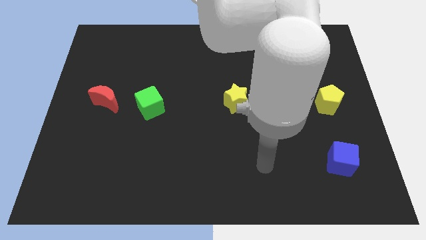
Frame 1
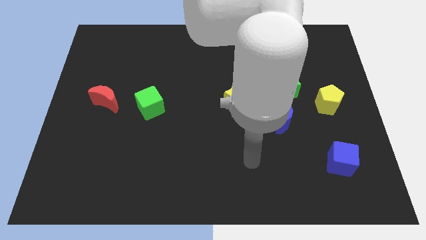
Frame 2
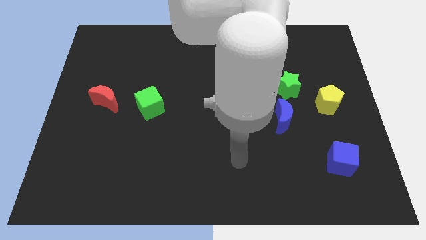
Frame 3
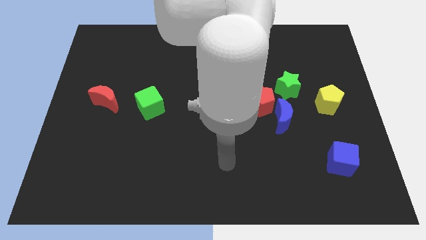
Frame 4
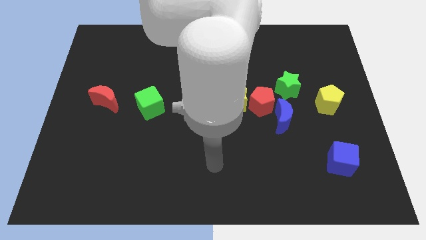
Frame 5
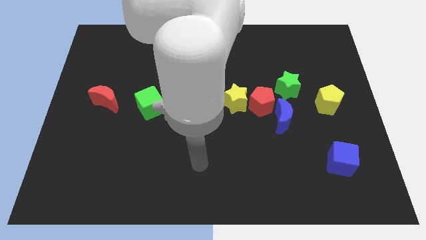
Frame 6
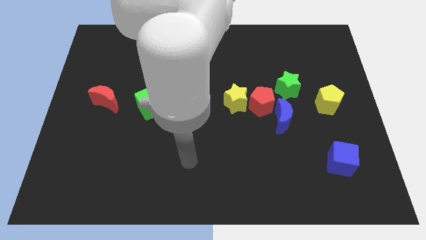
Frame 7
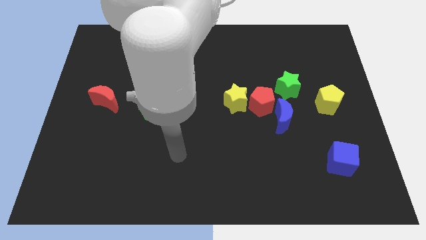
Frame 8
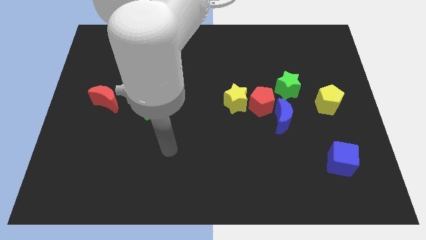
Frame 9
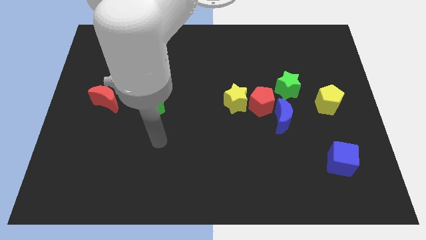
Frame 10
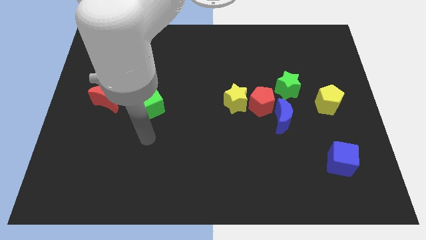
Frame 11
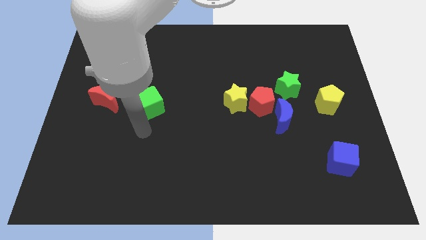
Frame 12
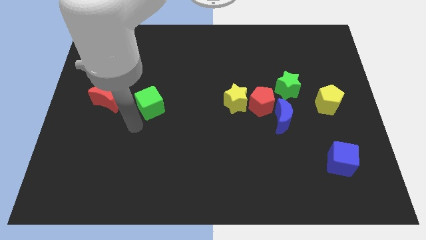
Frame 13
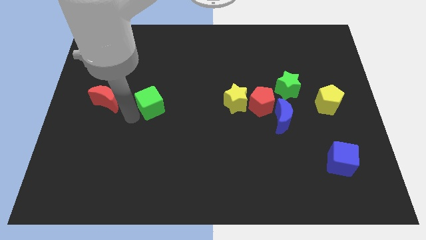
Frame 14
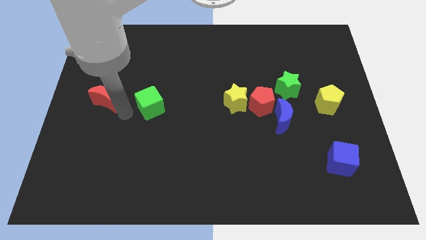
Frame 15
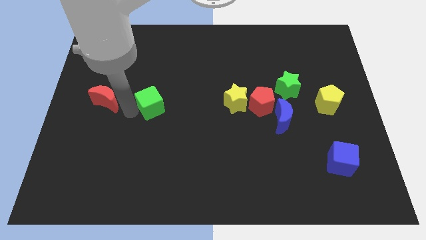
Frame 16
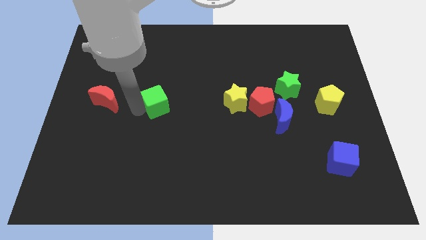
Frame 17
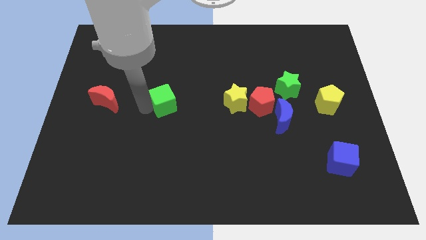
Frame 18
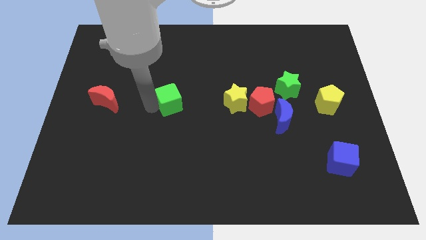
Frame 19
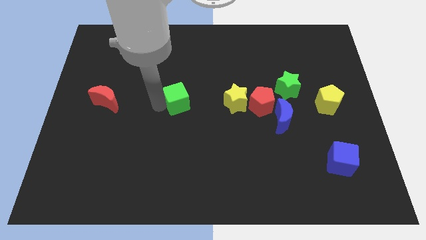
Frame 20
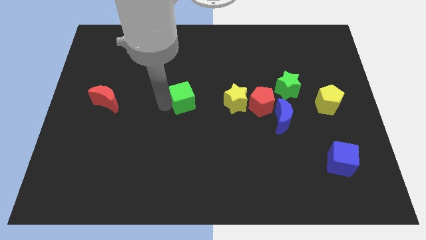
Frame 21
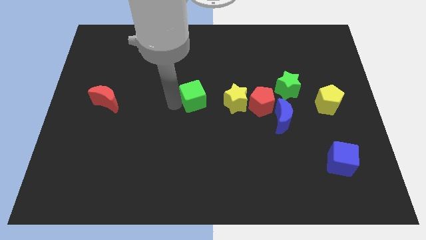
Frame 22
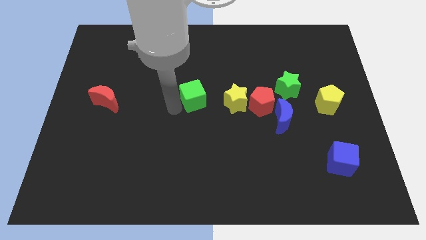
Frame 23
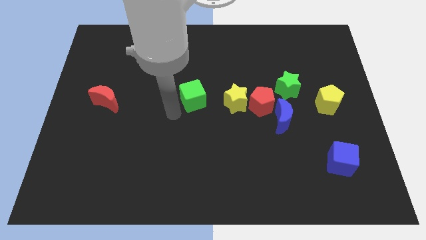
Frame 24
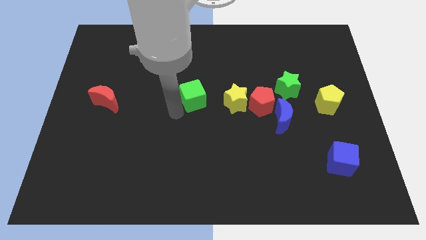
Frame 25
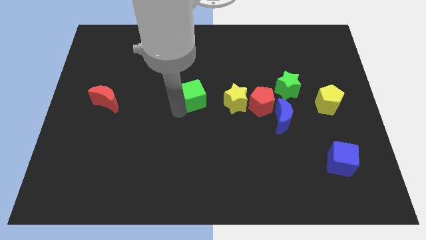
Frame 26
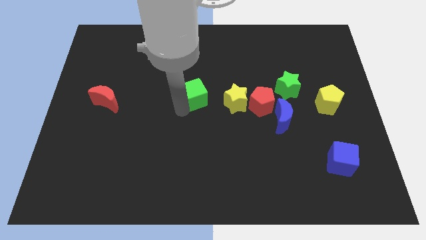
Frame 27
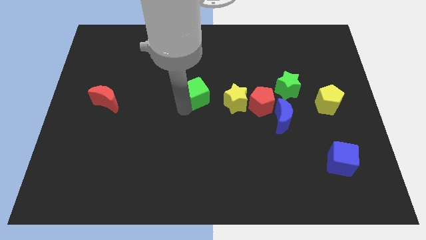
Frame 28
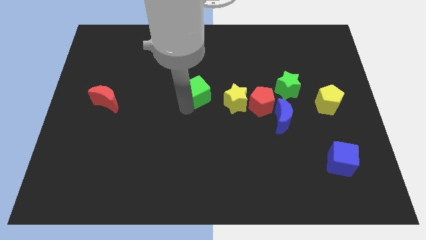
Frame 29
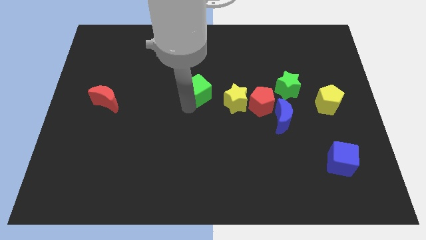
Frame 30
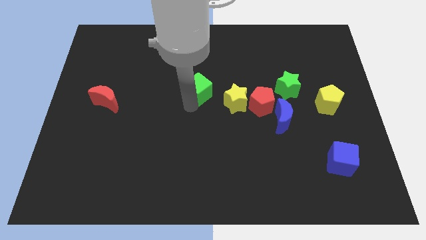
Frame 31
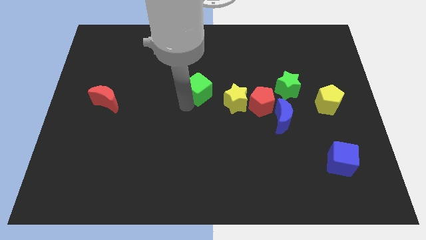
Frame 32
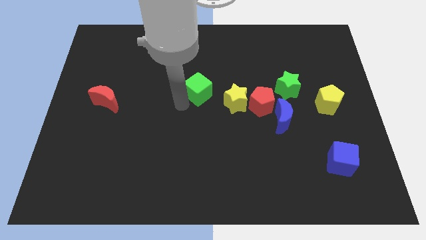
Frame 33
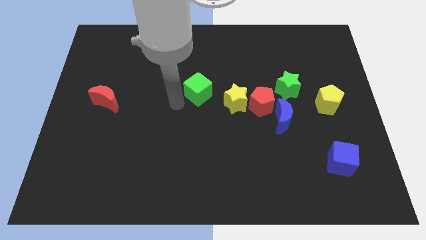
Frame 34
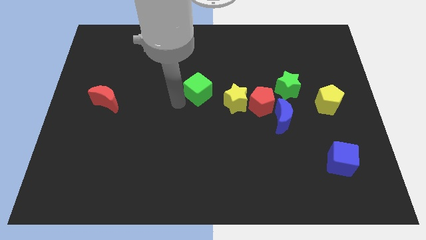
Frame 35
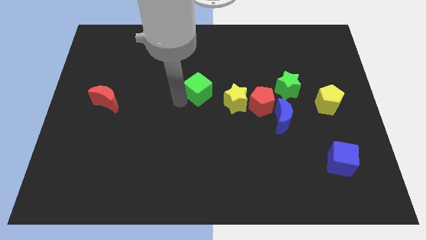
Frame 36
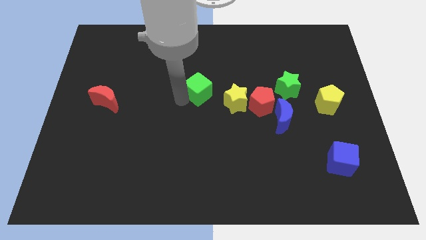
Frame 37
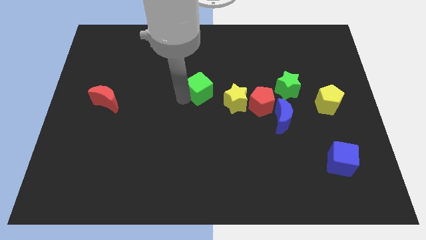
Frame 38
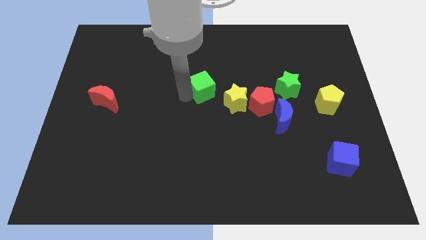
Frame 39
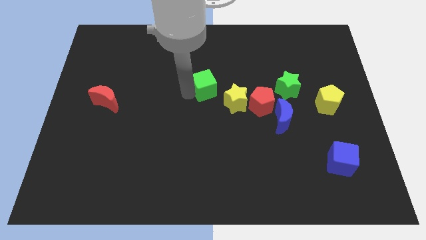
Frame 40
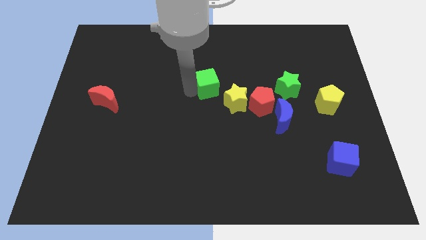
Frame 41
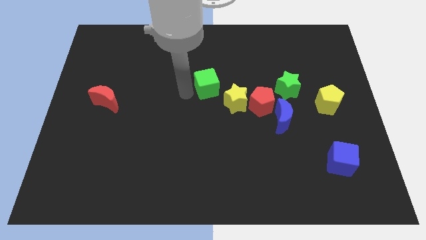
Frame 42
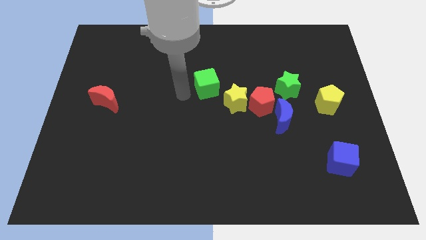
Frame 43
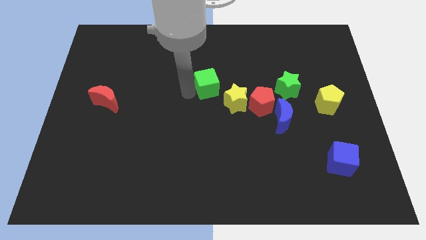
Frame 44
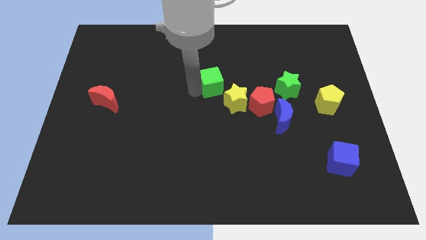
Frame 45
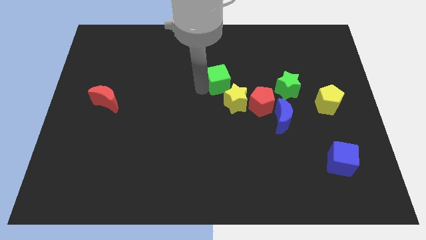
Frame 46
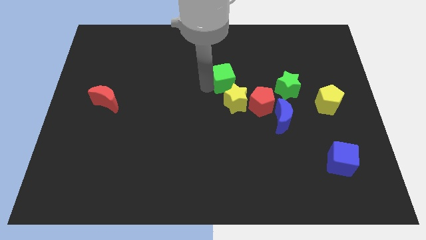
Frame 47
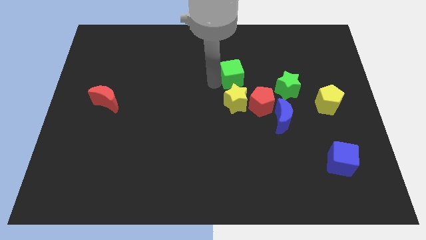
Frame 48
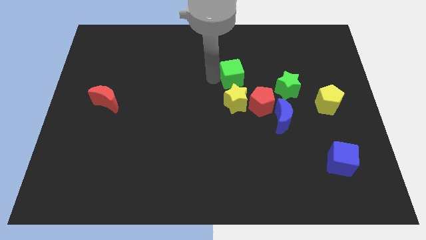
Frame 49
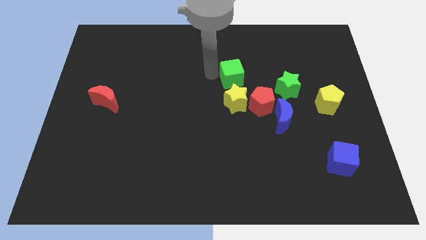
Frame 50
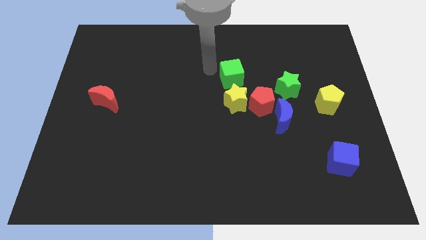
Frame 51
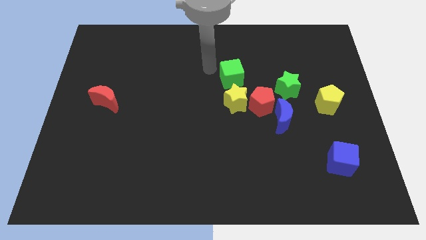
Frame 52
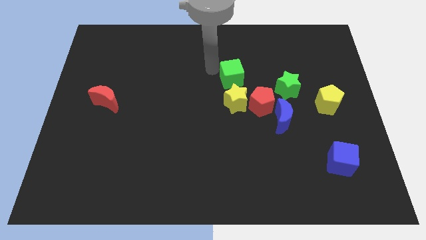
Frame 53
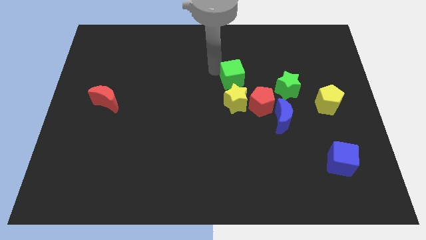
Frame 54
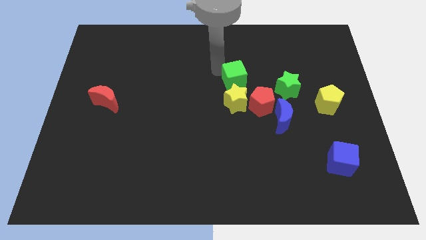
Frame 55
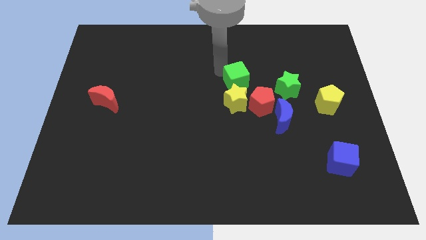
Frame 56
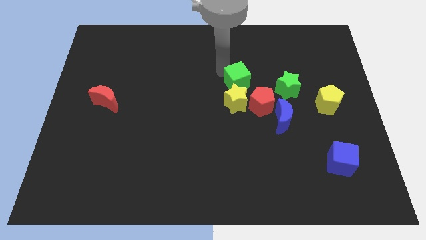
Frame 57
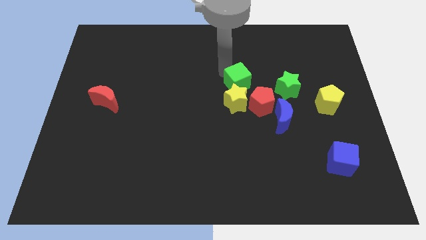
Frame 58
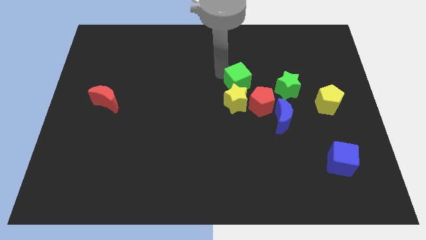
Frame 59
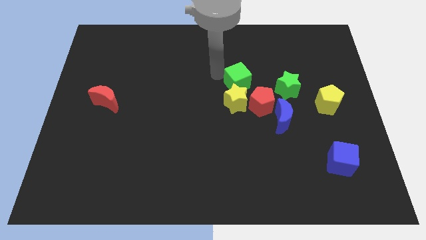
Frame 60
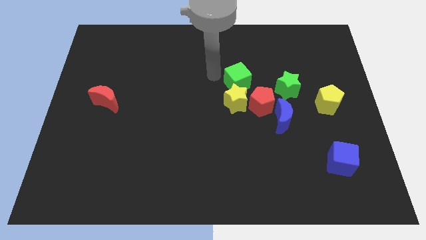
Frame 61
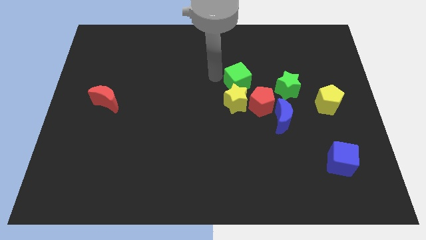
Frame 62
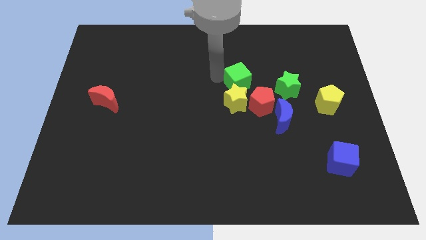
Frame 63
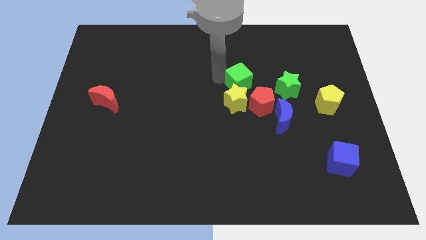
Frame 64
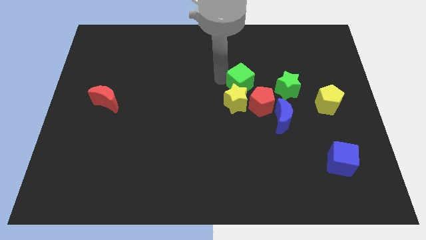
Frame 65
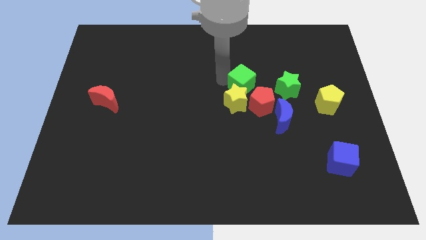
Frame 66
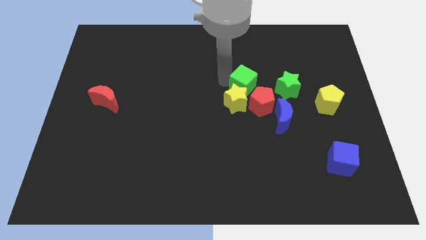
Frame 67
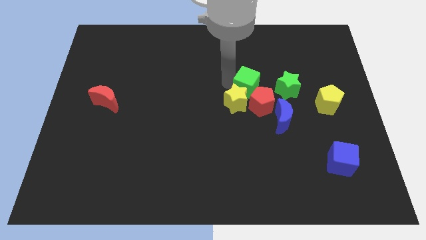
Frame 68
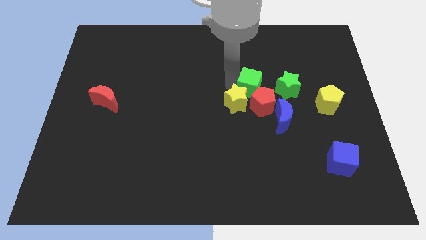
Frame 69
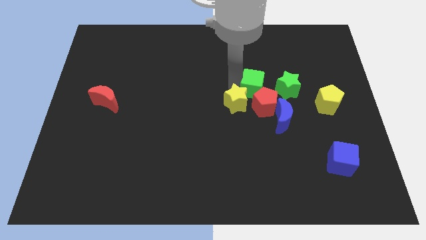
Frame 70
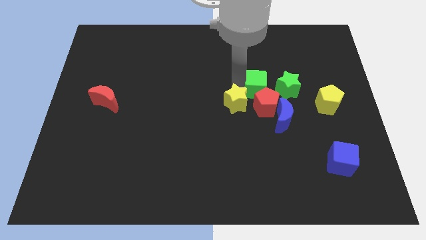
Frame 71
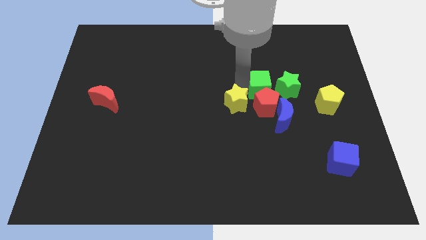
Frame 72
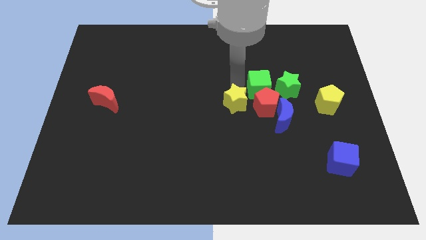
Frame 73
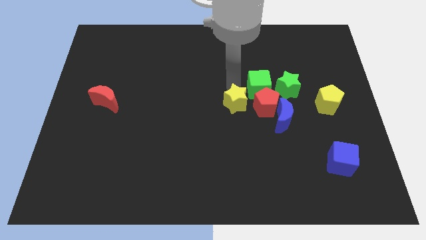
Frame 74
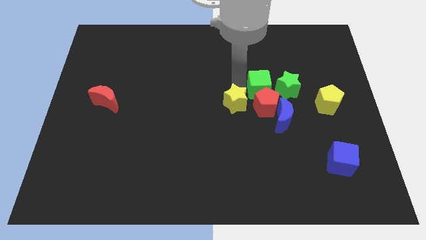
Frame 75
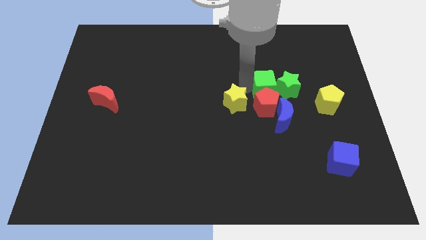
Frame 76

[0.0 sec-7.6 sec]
push the green cube close to the green star
